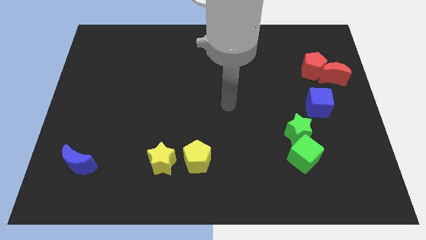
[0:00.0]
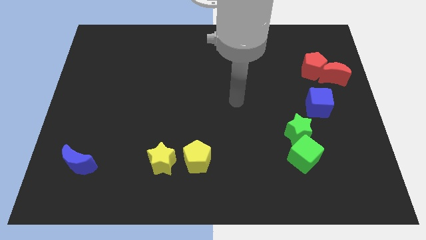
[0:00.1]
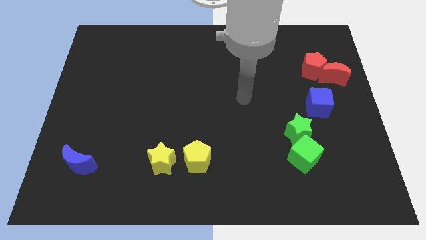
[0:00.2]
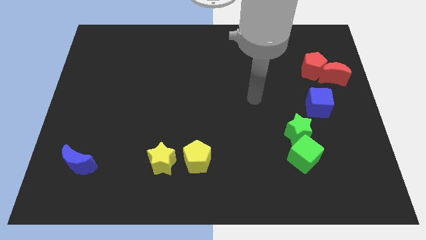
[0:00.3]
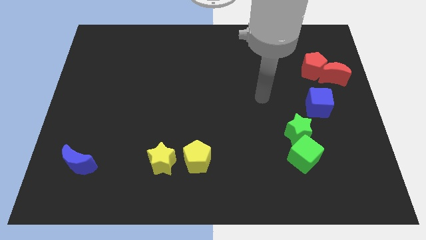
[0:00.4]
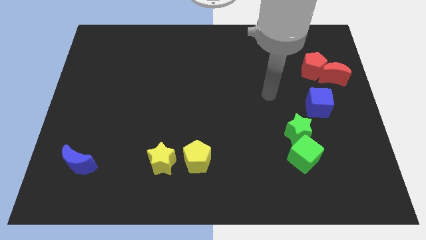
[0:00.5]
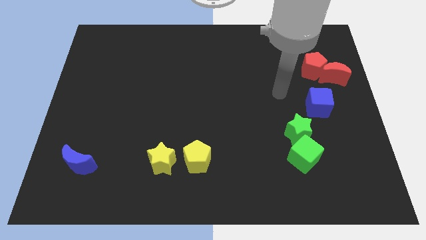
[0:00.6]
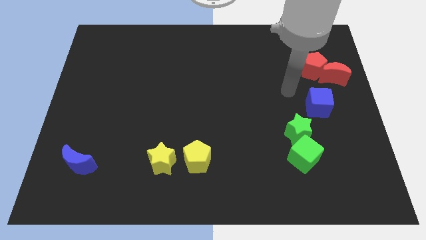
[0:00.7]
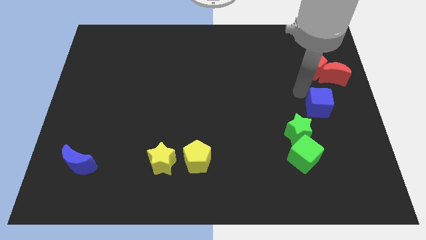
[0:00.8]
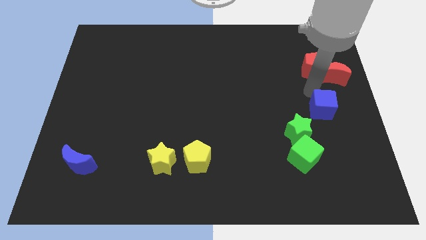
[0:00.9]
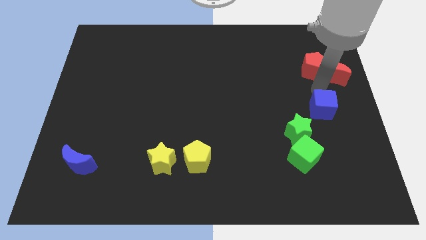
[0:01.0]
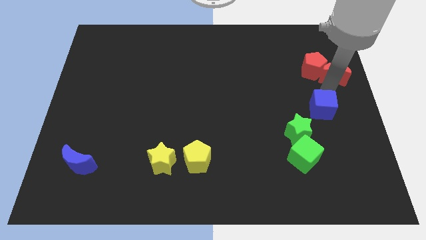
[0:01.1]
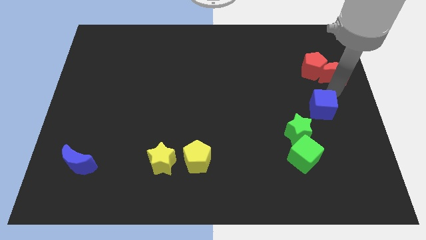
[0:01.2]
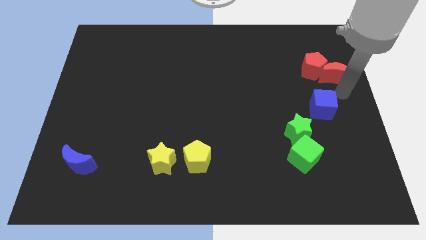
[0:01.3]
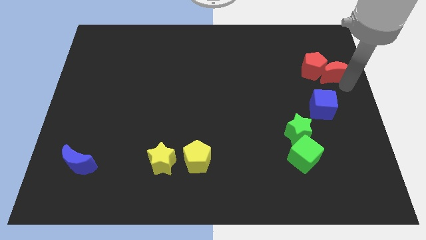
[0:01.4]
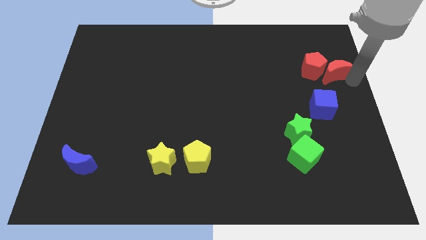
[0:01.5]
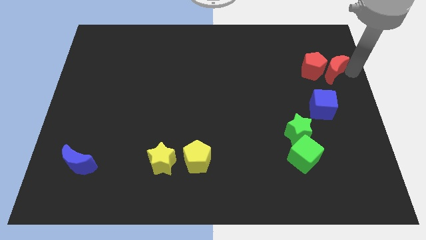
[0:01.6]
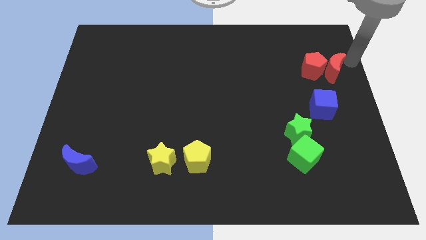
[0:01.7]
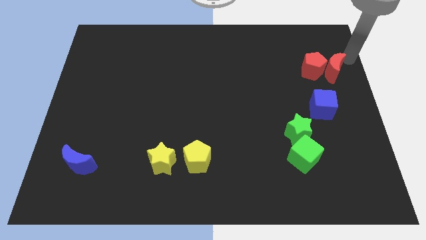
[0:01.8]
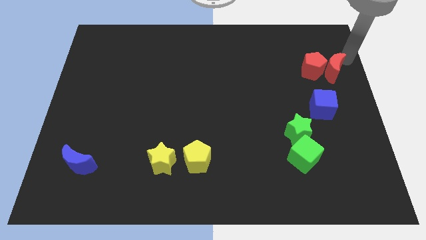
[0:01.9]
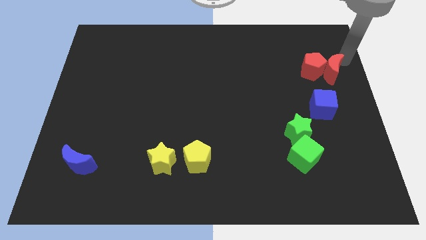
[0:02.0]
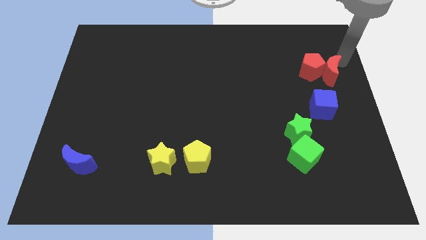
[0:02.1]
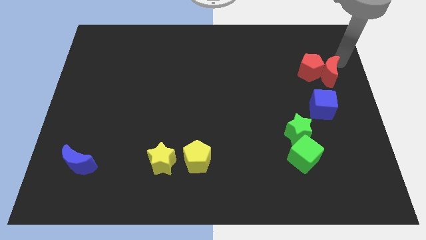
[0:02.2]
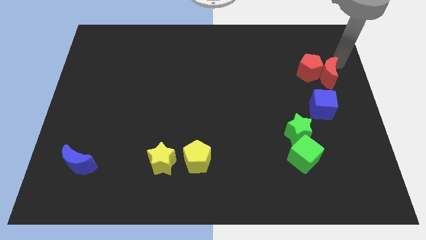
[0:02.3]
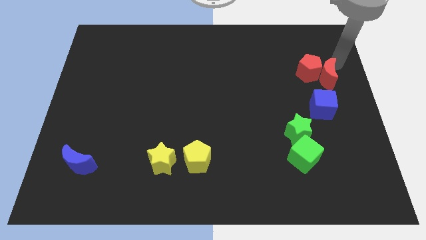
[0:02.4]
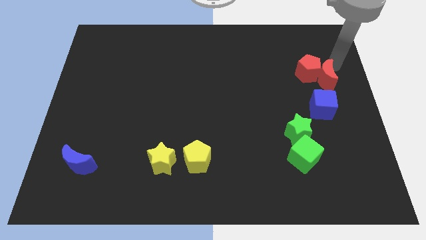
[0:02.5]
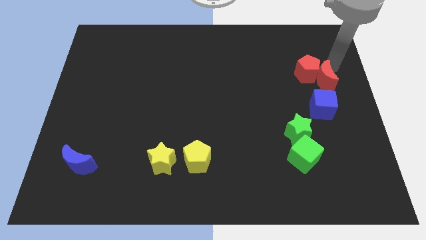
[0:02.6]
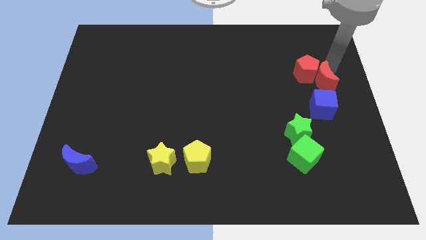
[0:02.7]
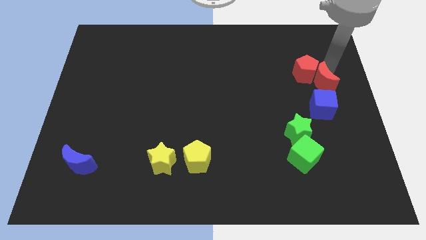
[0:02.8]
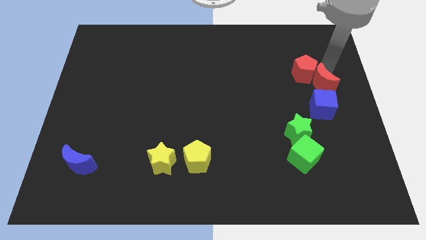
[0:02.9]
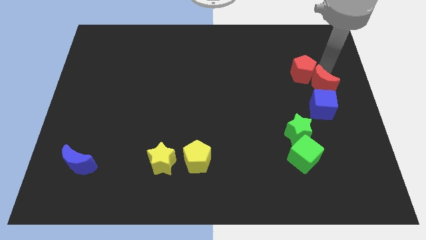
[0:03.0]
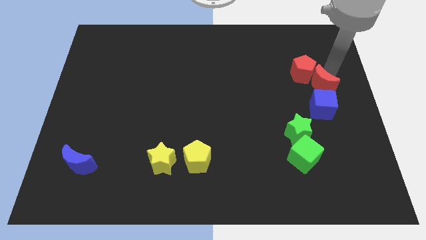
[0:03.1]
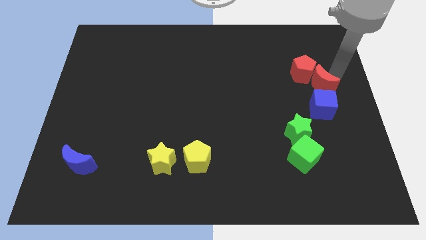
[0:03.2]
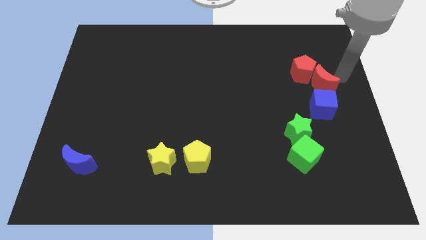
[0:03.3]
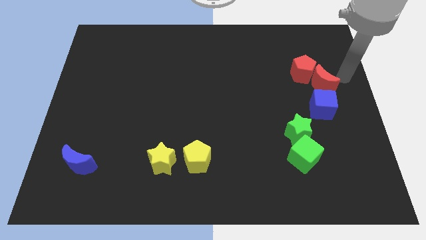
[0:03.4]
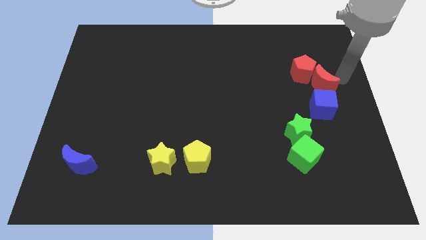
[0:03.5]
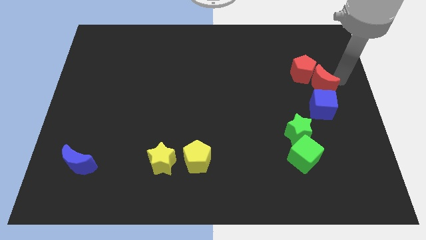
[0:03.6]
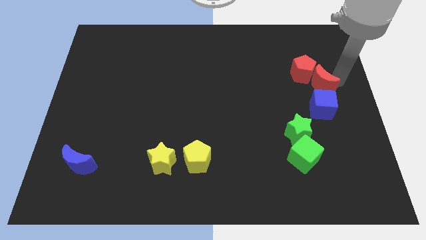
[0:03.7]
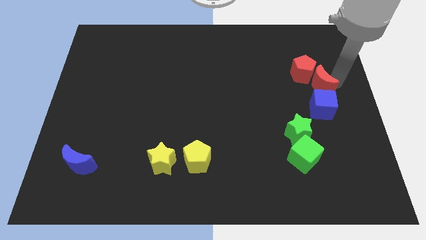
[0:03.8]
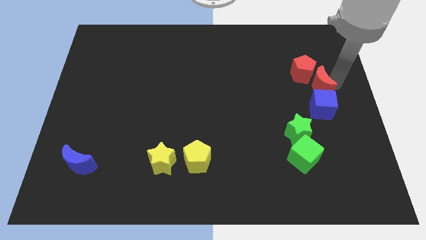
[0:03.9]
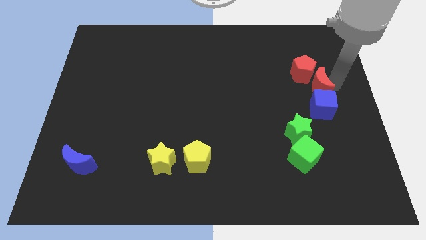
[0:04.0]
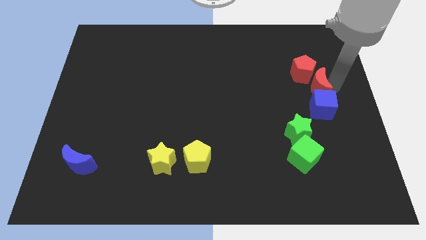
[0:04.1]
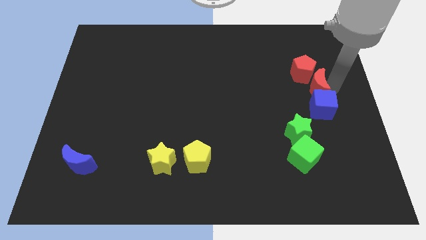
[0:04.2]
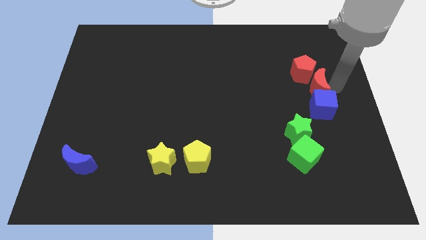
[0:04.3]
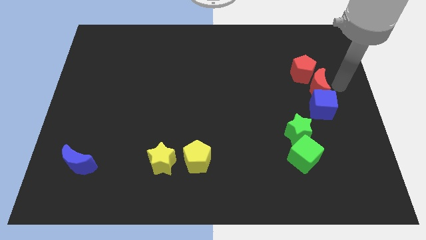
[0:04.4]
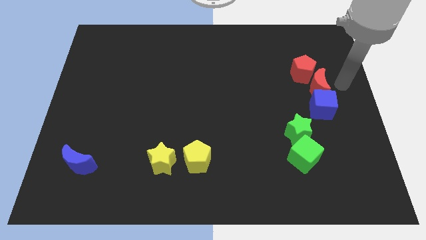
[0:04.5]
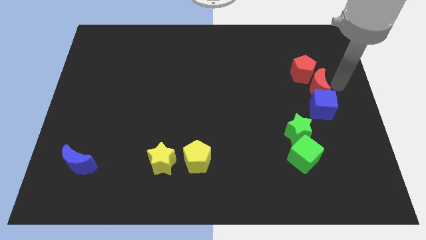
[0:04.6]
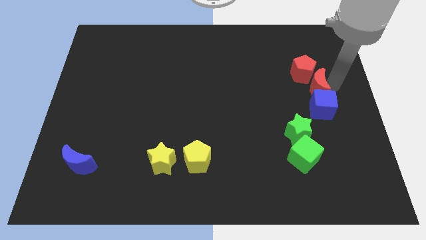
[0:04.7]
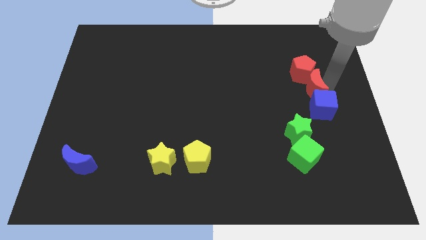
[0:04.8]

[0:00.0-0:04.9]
slide the red moon a little bit down and to the left diagonally

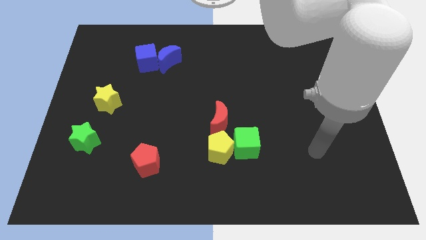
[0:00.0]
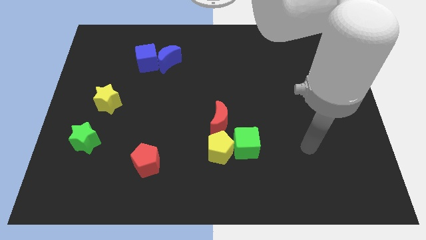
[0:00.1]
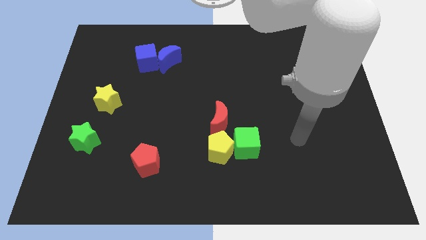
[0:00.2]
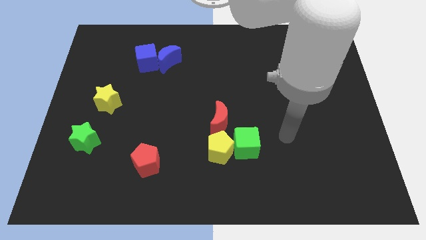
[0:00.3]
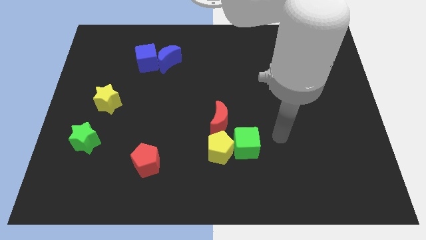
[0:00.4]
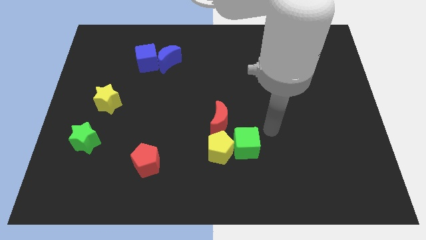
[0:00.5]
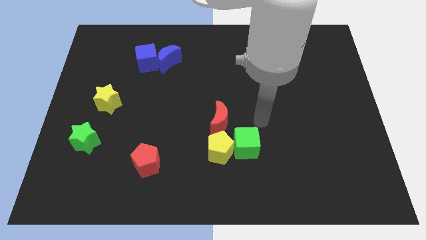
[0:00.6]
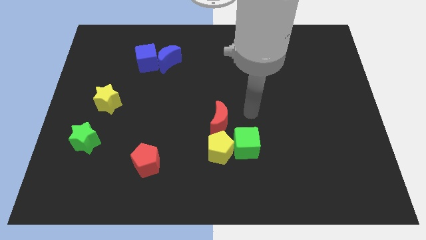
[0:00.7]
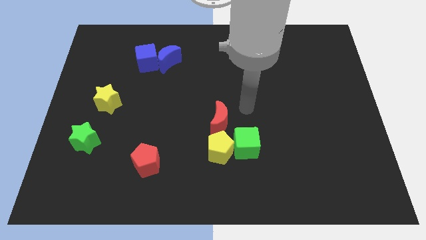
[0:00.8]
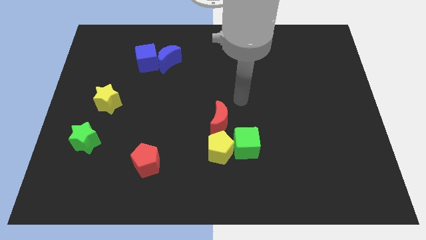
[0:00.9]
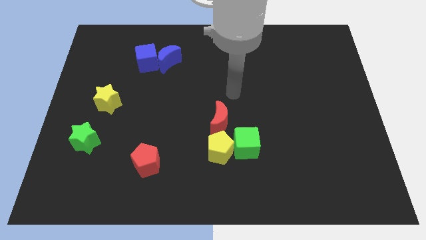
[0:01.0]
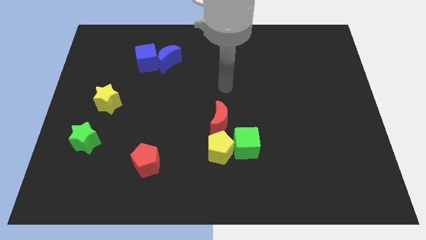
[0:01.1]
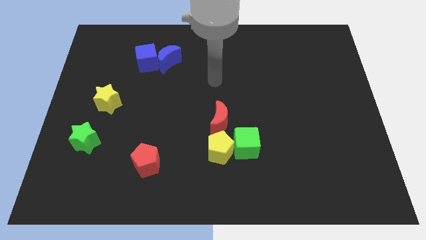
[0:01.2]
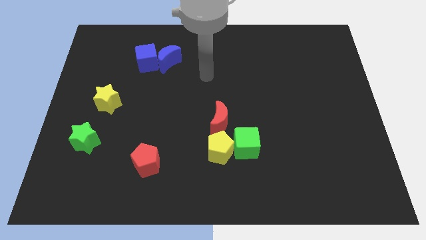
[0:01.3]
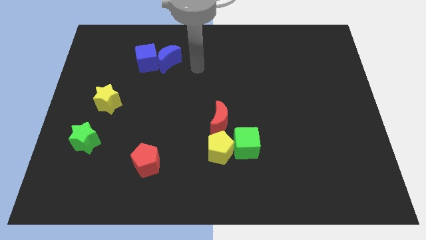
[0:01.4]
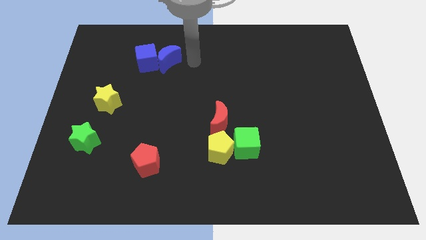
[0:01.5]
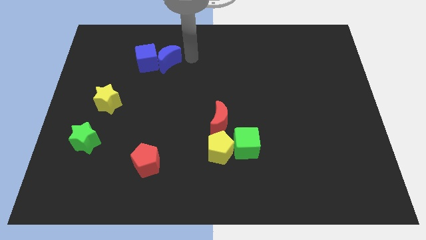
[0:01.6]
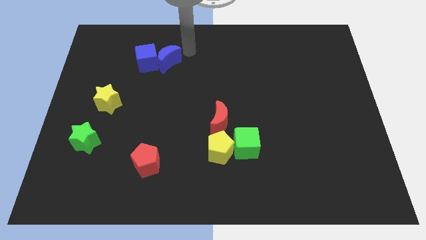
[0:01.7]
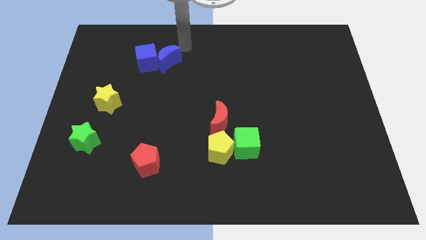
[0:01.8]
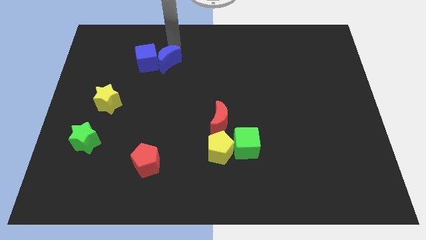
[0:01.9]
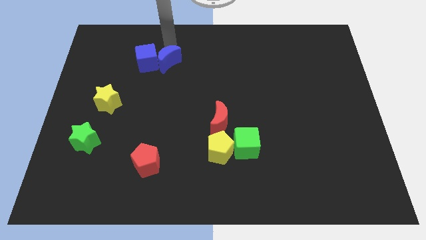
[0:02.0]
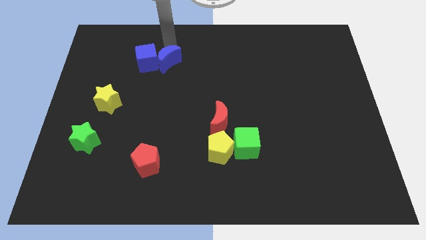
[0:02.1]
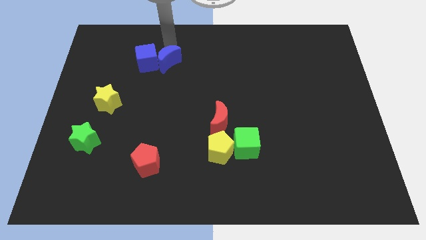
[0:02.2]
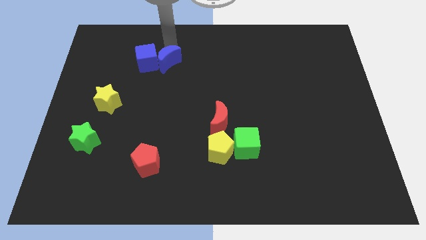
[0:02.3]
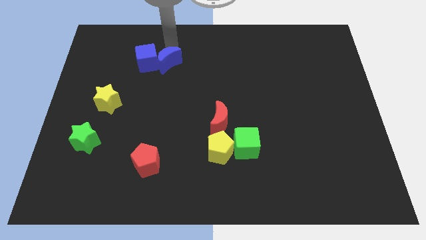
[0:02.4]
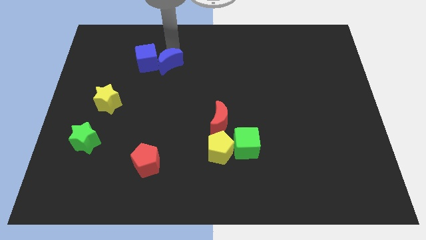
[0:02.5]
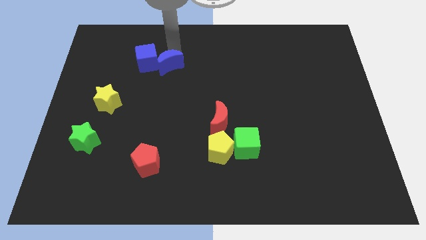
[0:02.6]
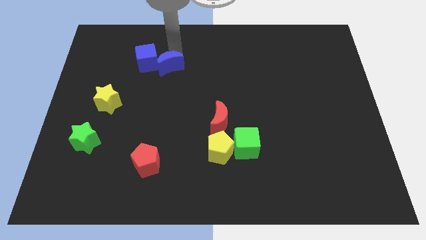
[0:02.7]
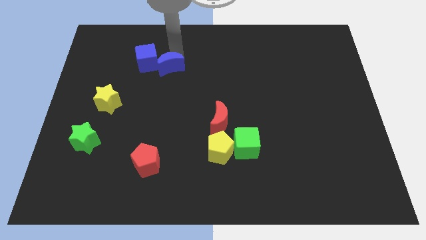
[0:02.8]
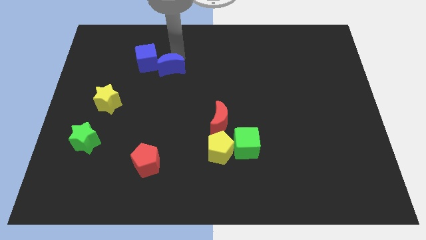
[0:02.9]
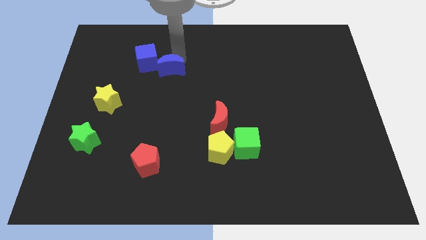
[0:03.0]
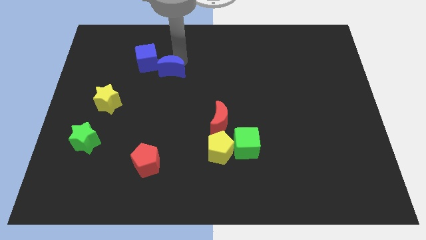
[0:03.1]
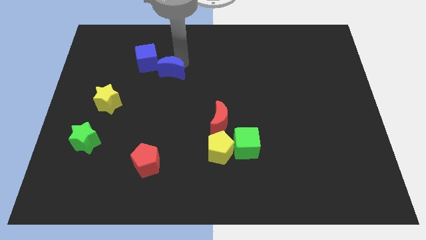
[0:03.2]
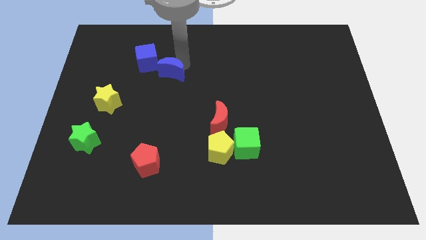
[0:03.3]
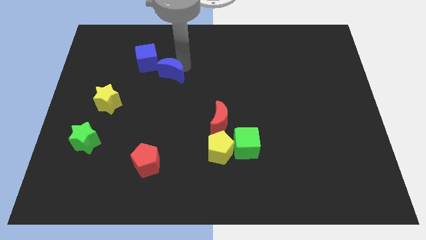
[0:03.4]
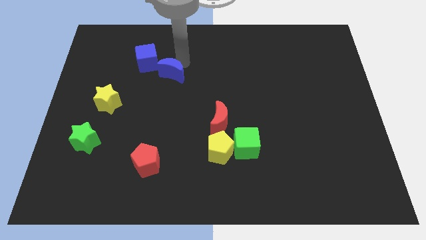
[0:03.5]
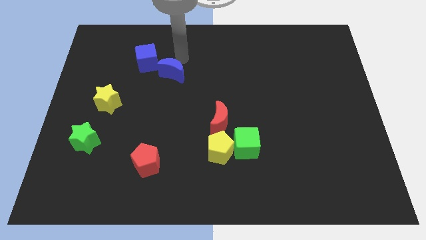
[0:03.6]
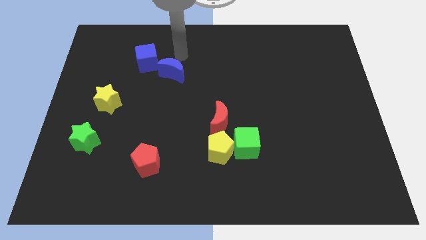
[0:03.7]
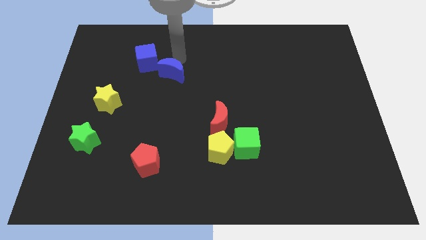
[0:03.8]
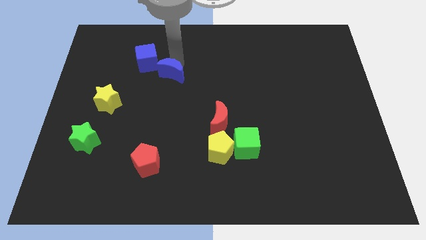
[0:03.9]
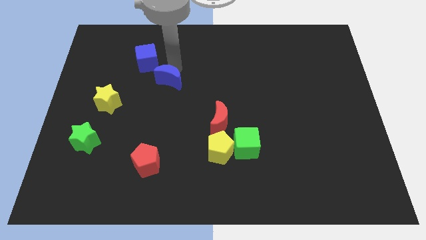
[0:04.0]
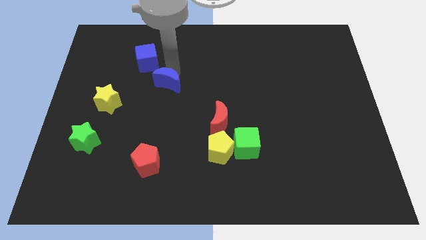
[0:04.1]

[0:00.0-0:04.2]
slide the blue moon slightly downwards
